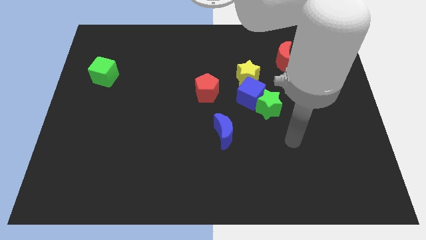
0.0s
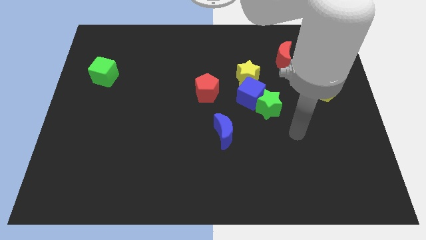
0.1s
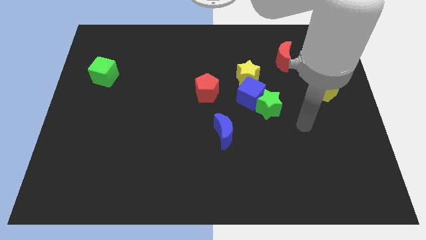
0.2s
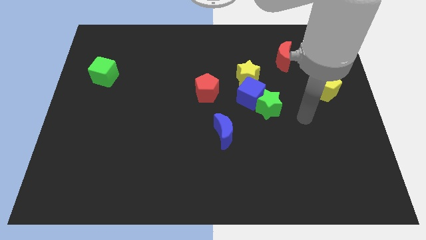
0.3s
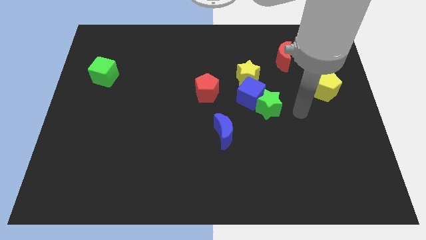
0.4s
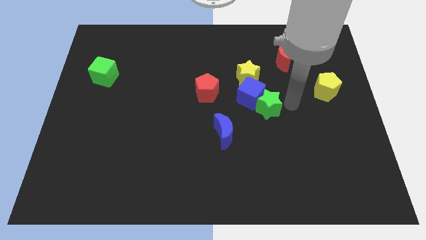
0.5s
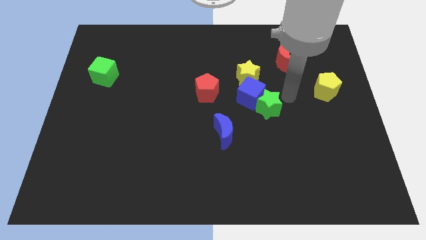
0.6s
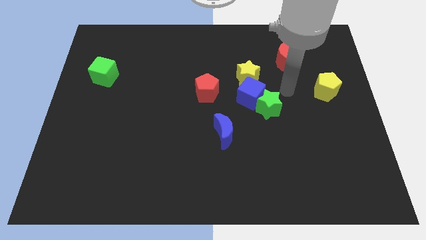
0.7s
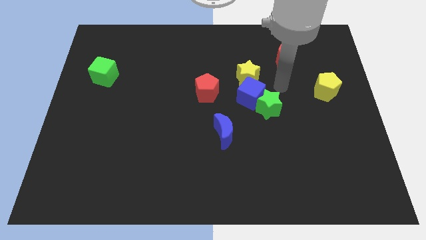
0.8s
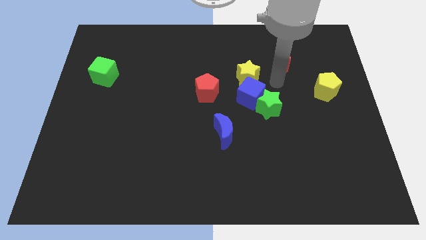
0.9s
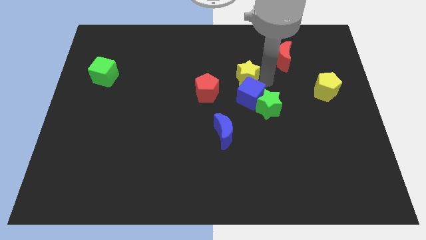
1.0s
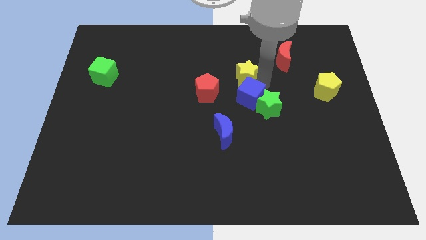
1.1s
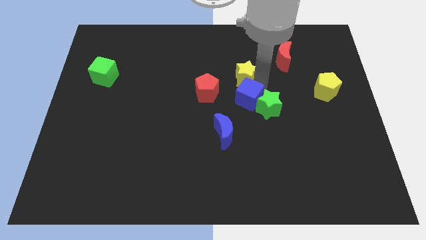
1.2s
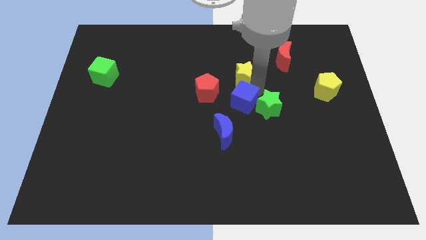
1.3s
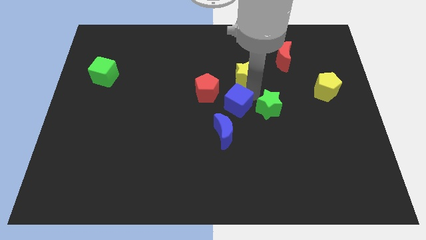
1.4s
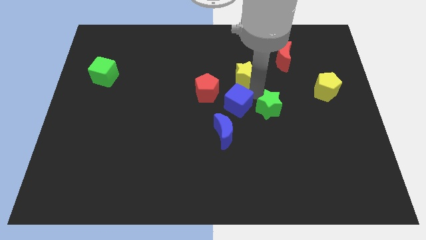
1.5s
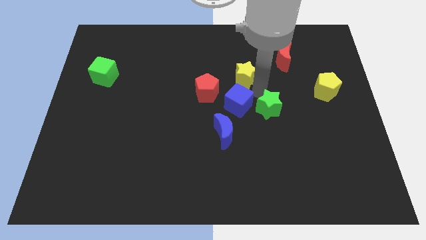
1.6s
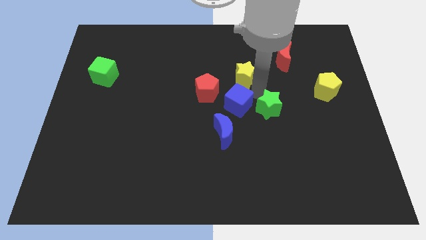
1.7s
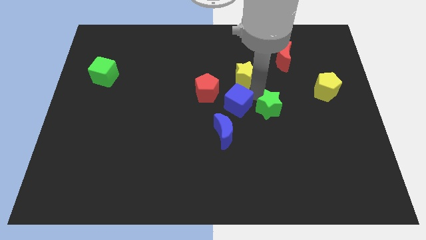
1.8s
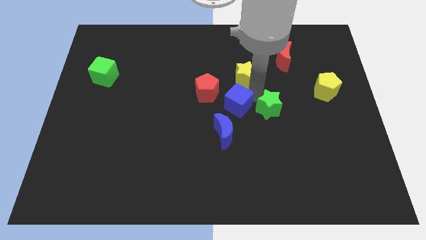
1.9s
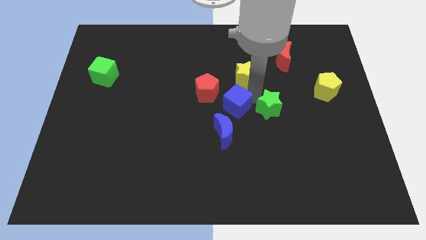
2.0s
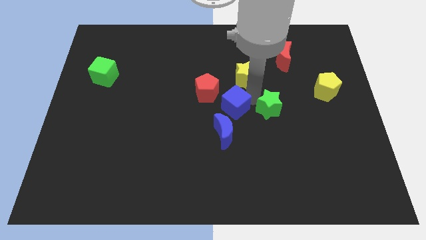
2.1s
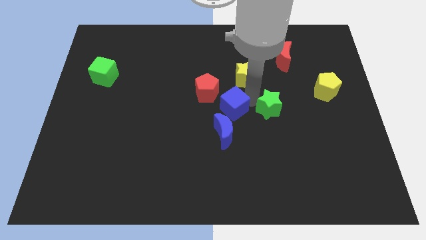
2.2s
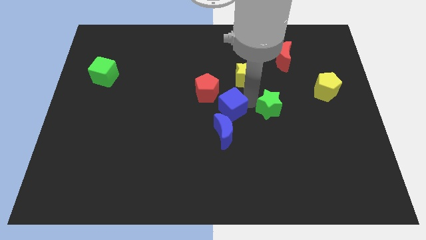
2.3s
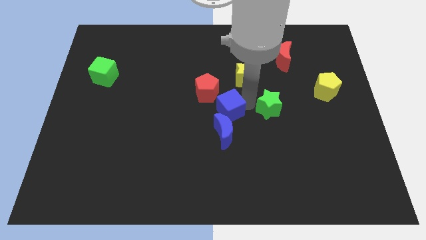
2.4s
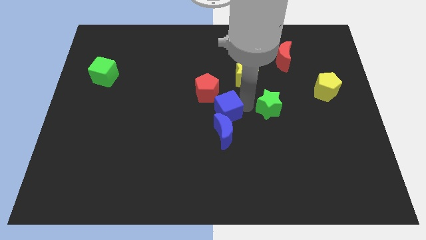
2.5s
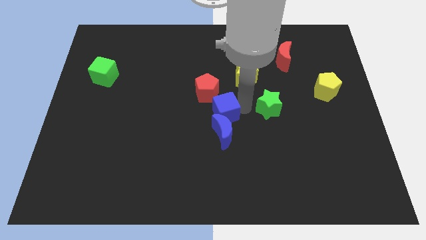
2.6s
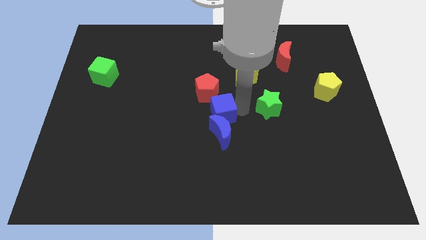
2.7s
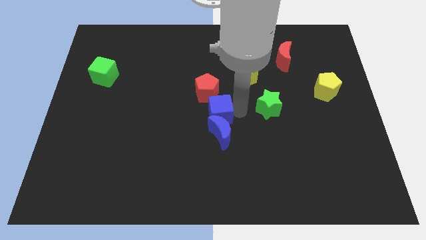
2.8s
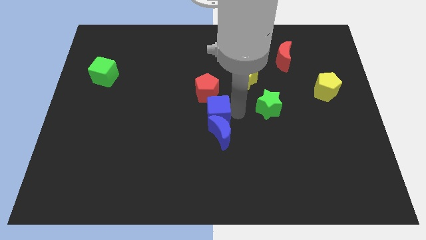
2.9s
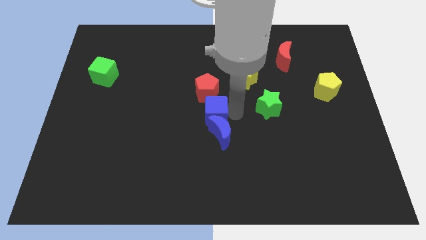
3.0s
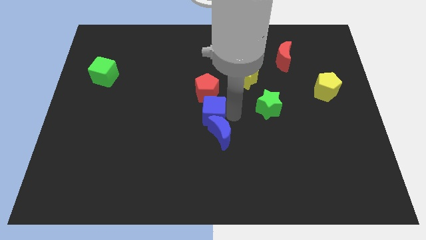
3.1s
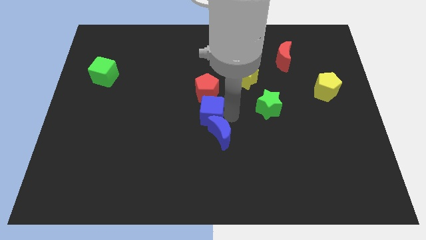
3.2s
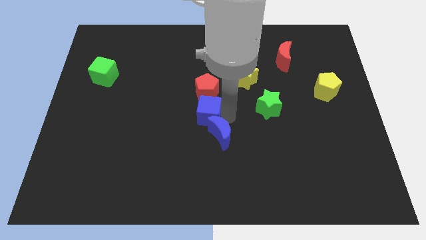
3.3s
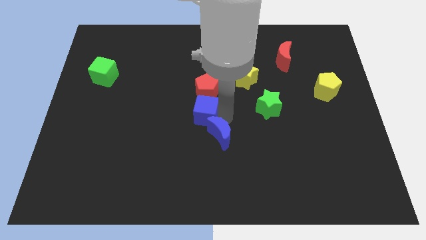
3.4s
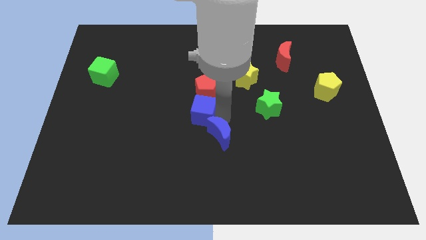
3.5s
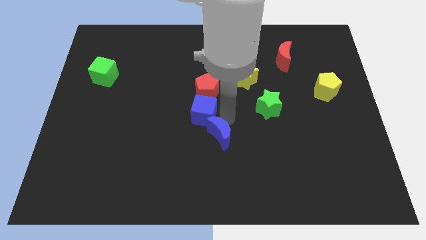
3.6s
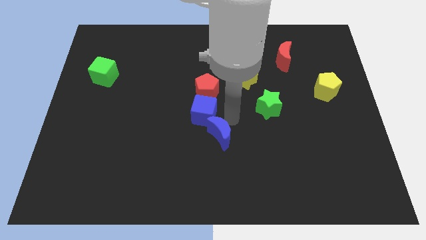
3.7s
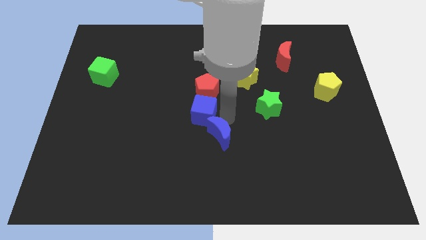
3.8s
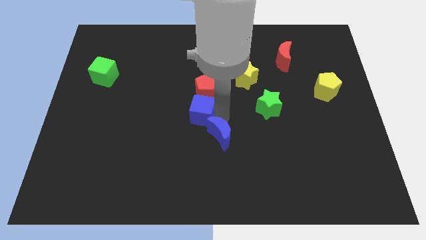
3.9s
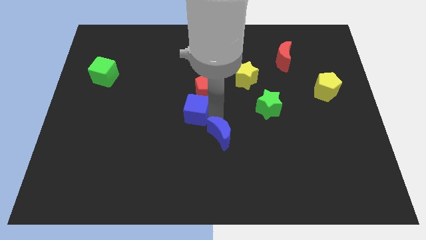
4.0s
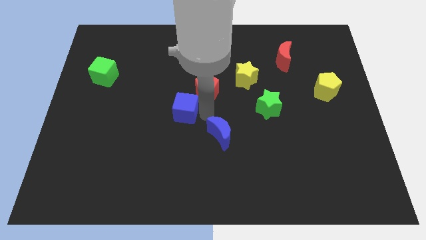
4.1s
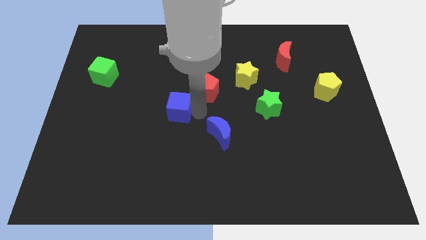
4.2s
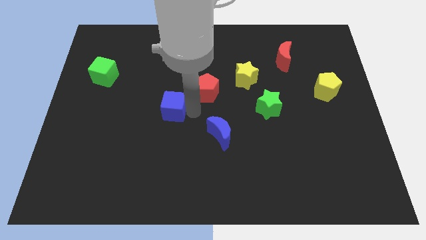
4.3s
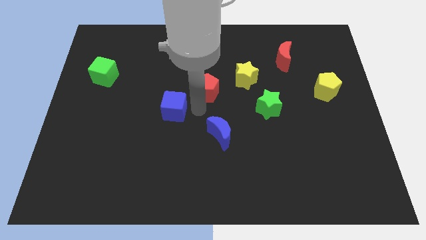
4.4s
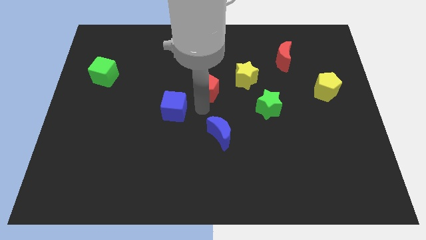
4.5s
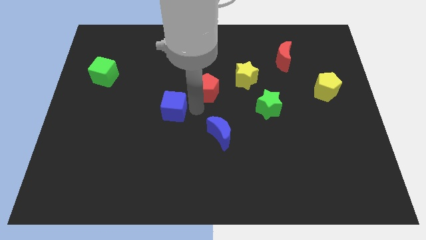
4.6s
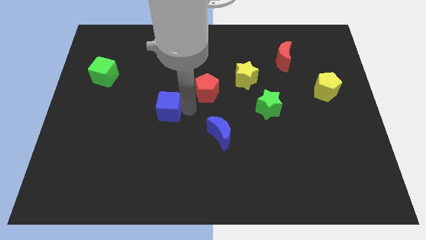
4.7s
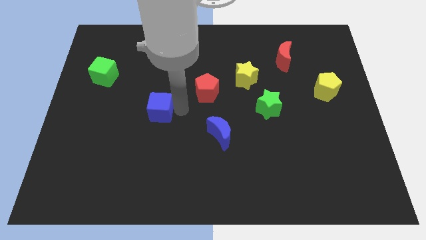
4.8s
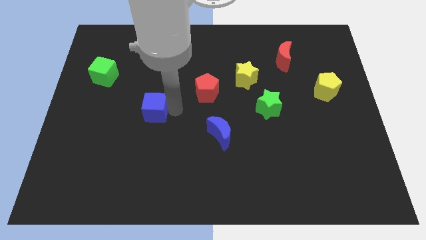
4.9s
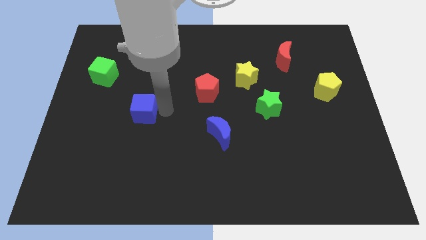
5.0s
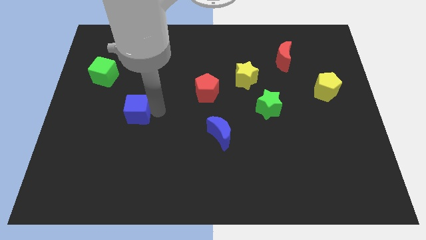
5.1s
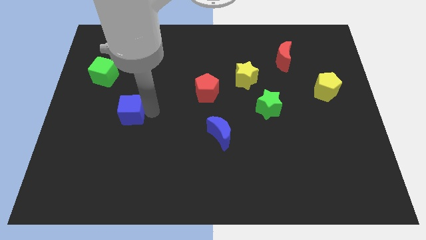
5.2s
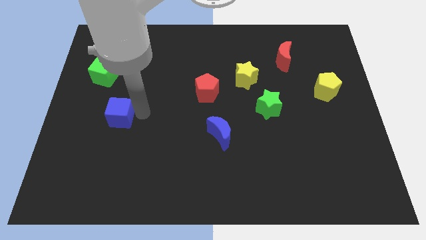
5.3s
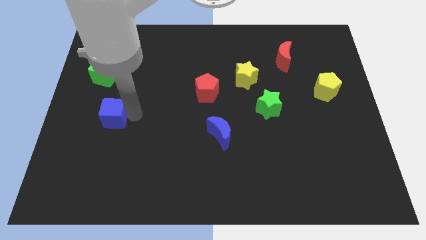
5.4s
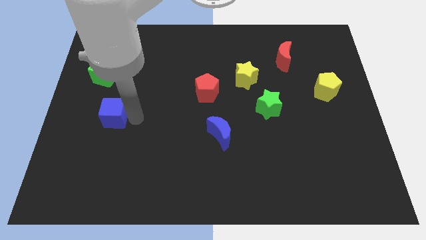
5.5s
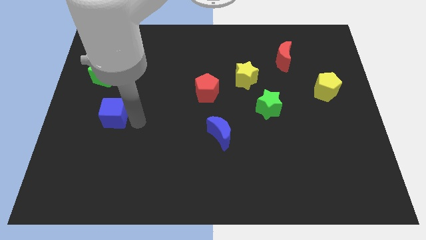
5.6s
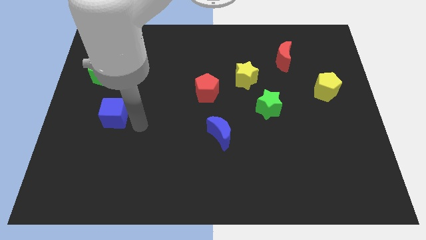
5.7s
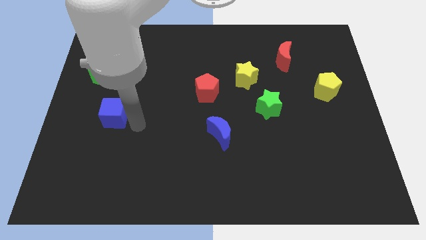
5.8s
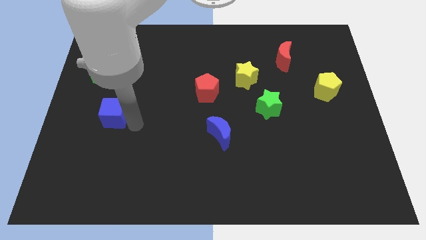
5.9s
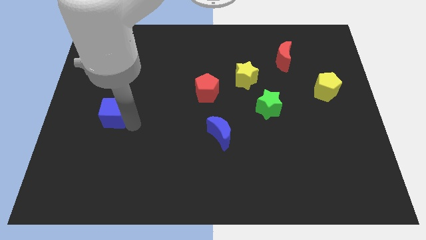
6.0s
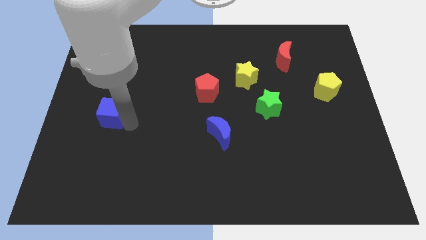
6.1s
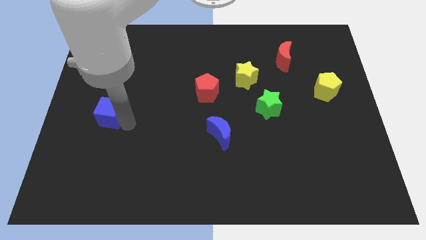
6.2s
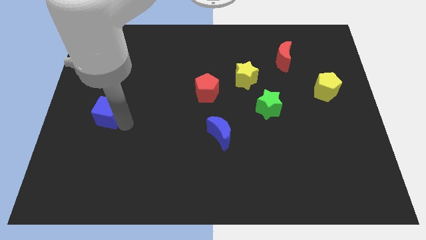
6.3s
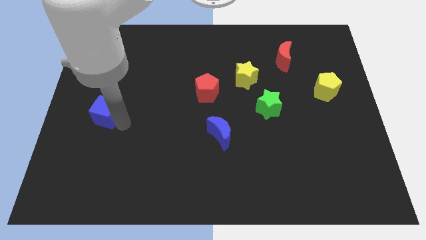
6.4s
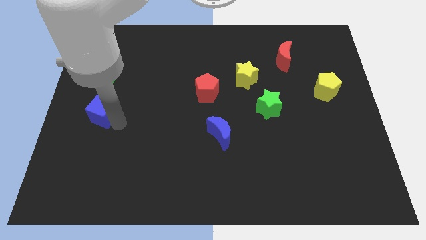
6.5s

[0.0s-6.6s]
move the blue cube to the center left

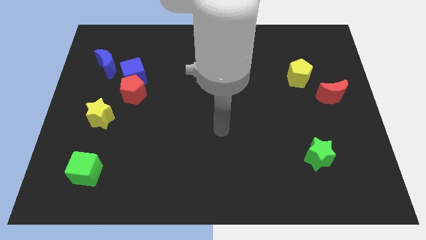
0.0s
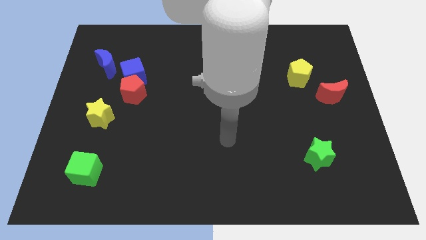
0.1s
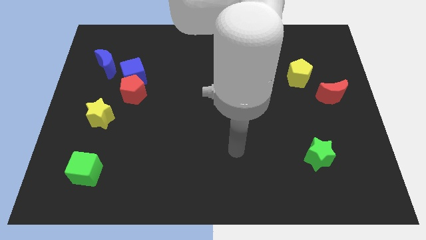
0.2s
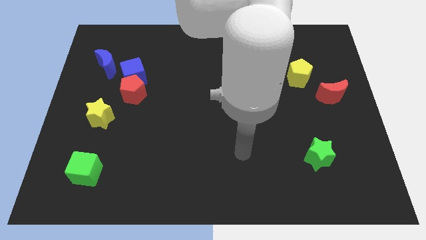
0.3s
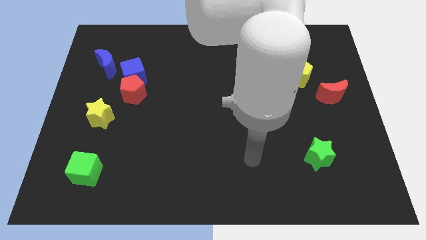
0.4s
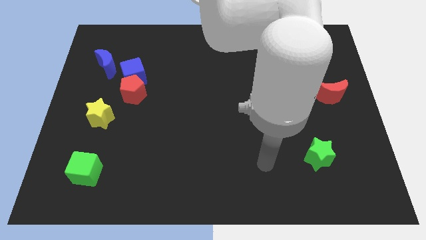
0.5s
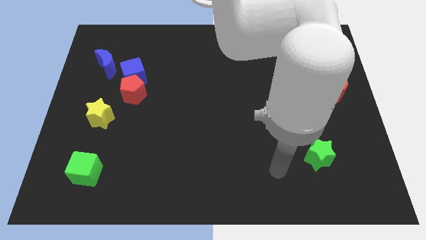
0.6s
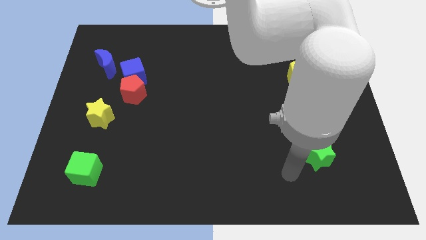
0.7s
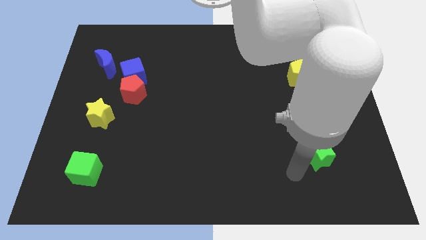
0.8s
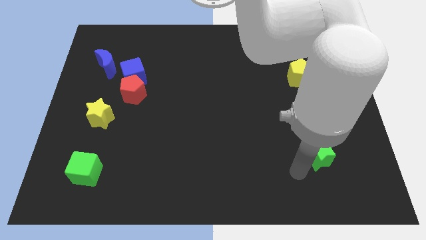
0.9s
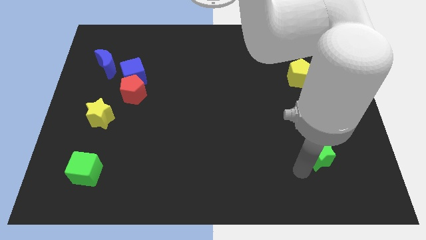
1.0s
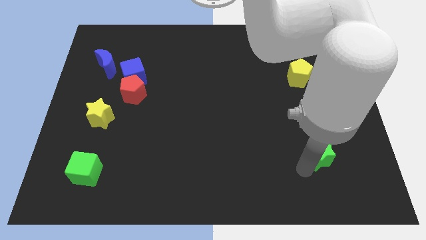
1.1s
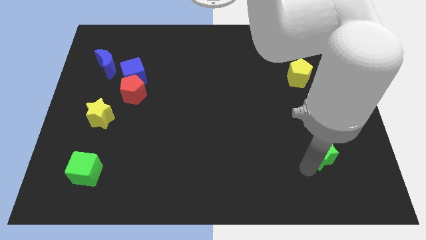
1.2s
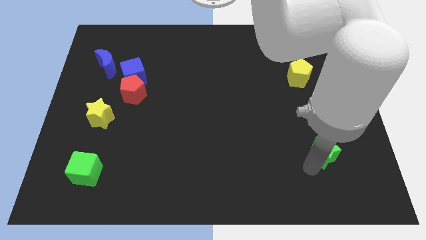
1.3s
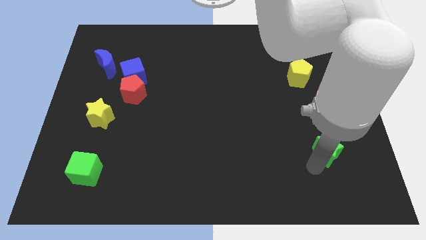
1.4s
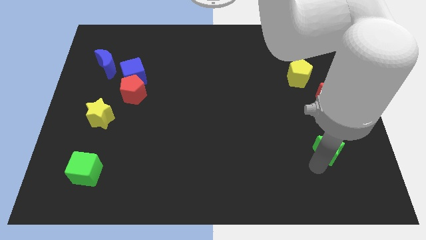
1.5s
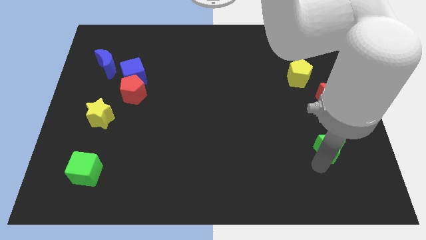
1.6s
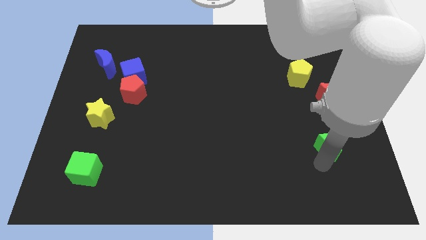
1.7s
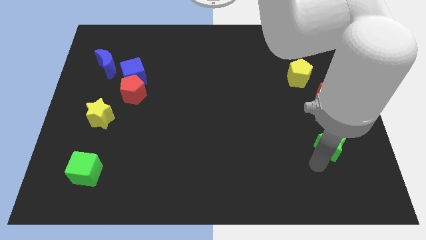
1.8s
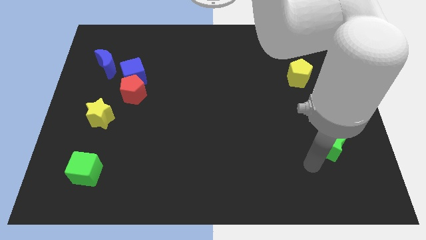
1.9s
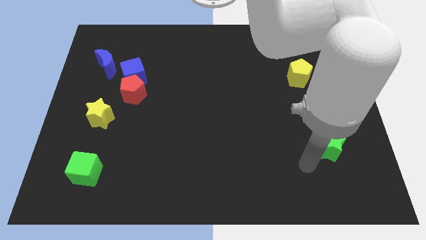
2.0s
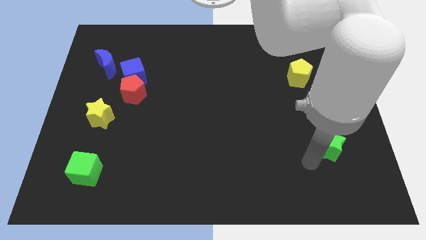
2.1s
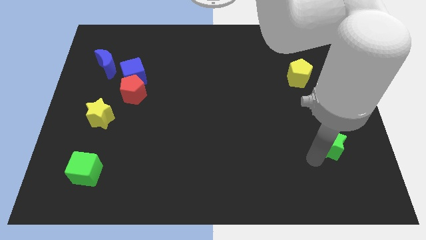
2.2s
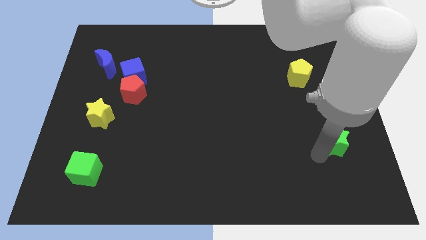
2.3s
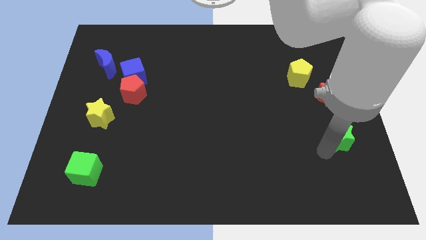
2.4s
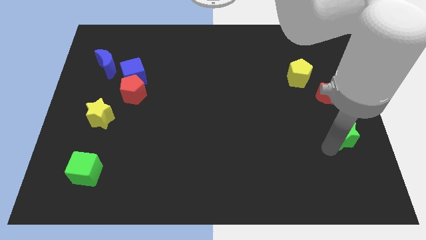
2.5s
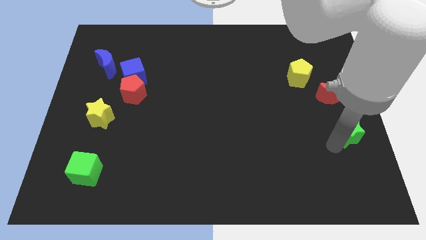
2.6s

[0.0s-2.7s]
put the green star to the center right
